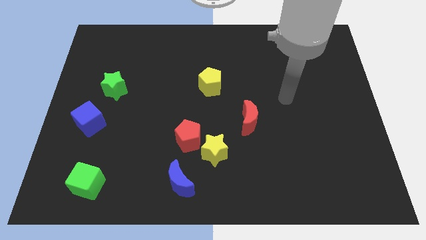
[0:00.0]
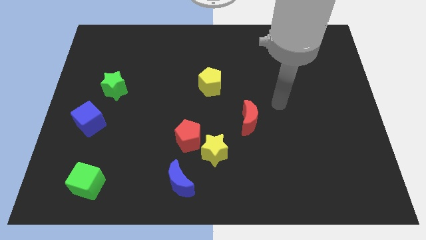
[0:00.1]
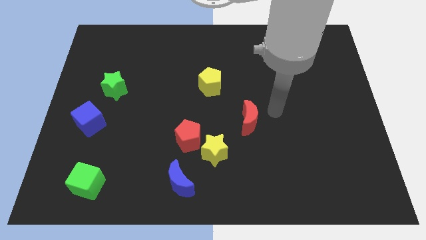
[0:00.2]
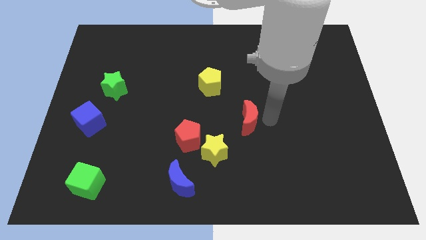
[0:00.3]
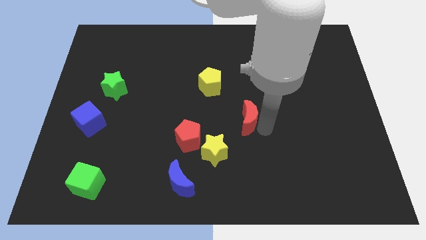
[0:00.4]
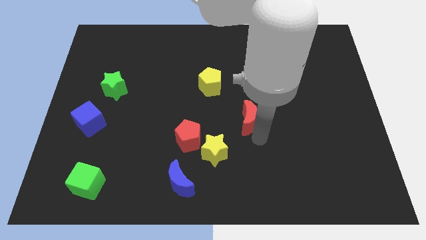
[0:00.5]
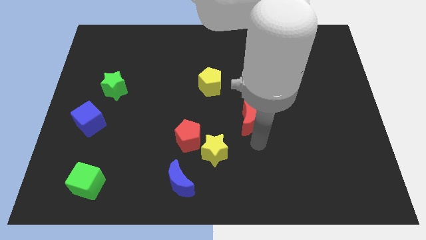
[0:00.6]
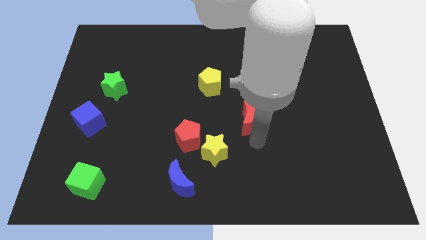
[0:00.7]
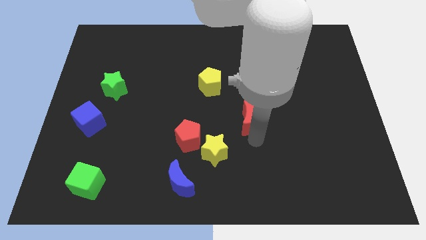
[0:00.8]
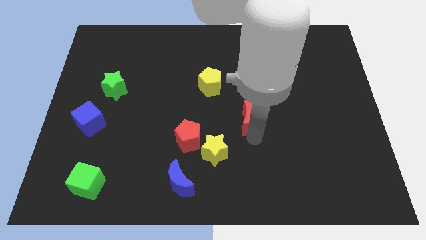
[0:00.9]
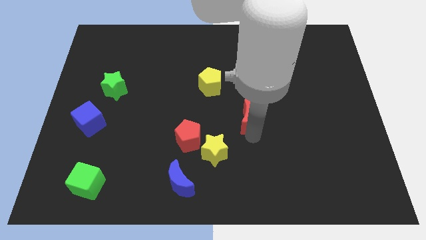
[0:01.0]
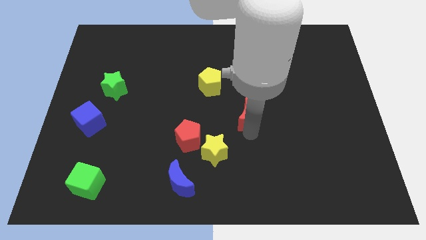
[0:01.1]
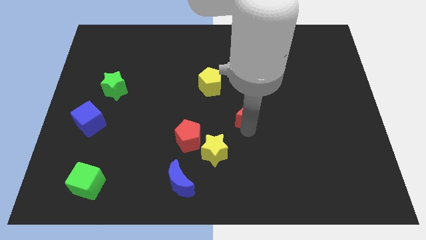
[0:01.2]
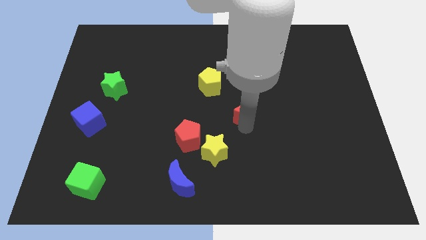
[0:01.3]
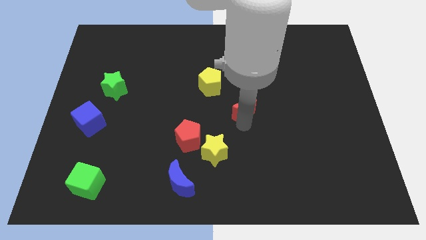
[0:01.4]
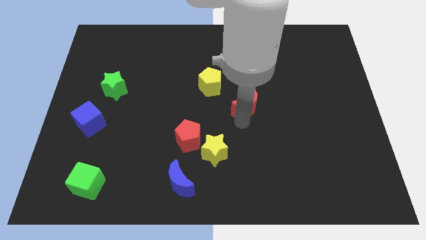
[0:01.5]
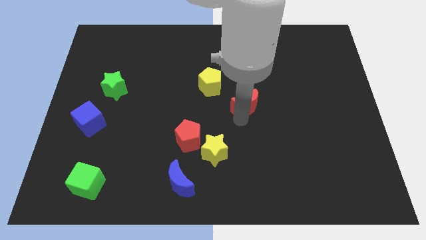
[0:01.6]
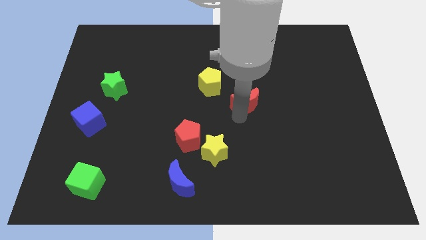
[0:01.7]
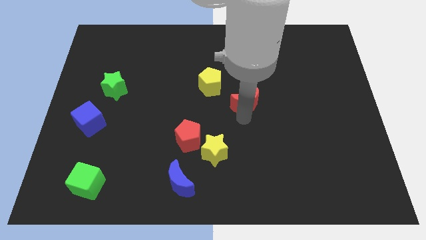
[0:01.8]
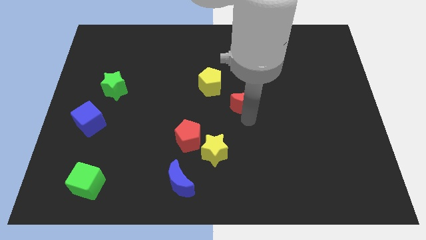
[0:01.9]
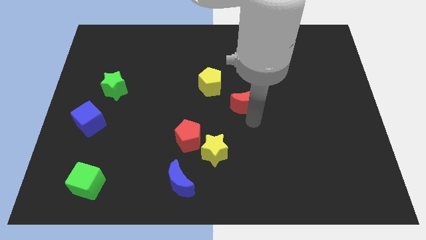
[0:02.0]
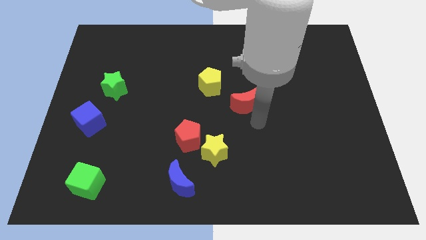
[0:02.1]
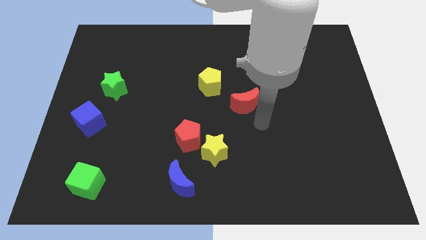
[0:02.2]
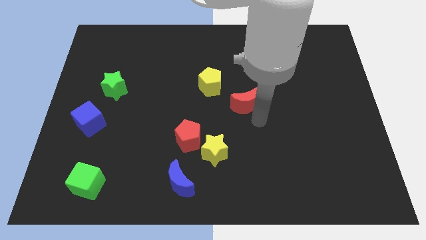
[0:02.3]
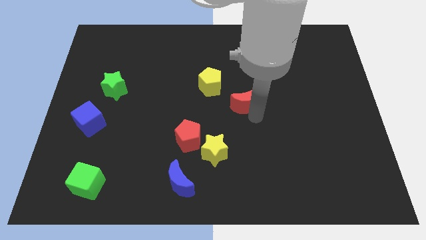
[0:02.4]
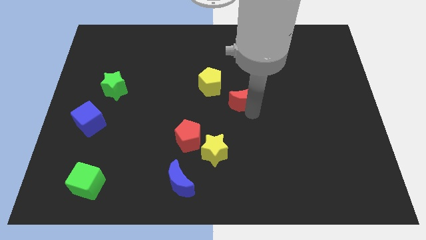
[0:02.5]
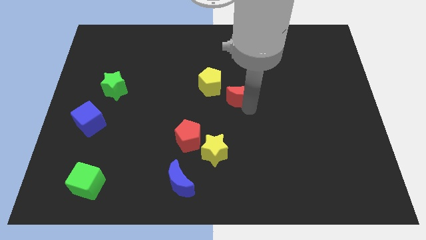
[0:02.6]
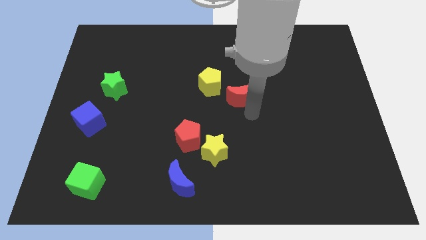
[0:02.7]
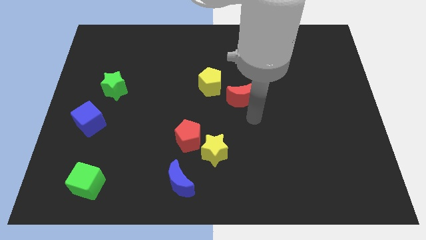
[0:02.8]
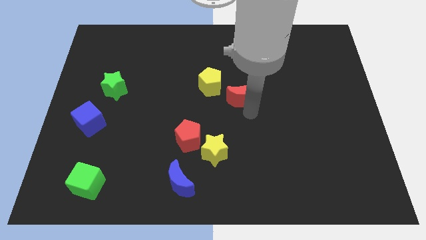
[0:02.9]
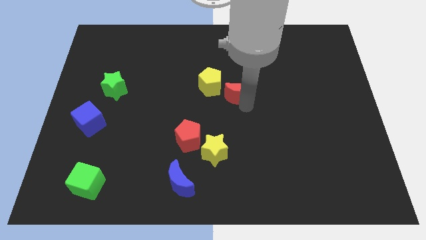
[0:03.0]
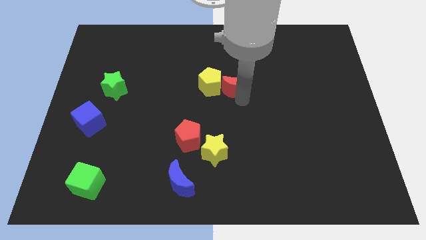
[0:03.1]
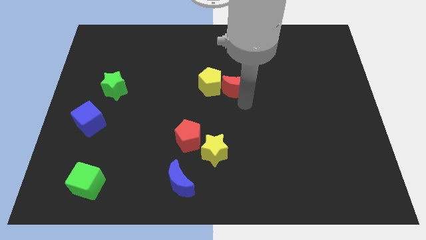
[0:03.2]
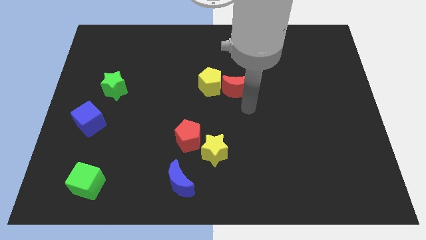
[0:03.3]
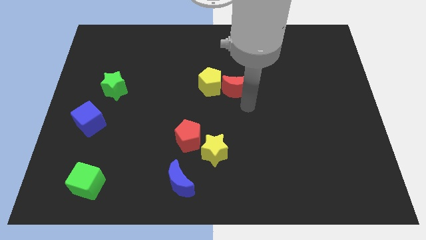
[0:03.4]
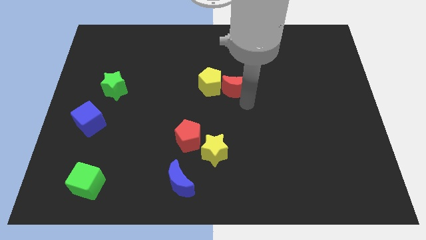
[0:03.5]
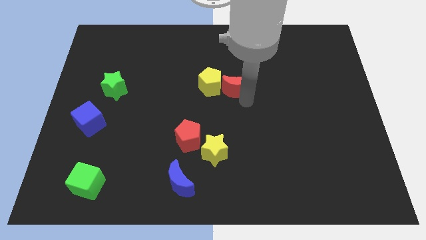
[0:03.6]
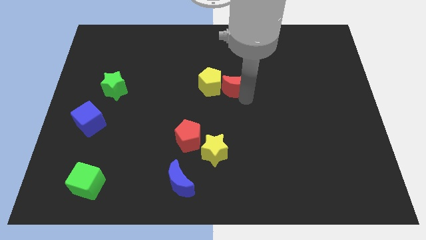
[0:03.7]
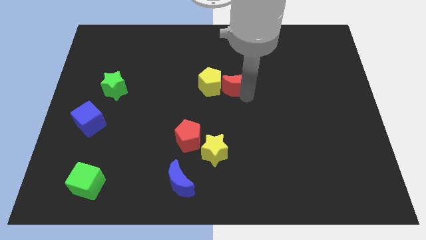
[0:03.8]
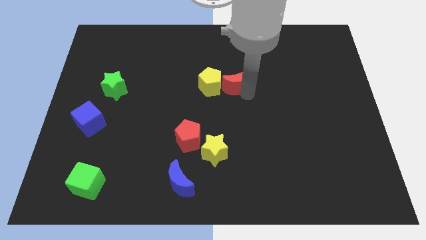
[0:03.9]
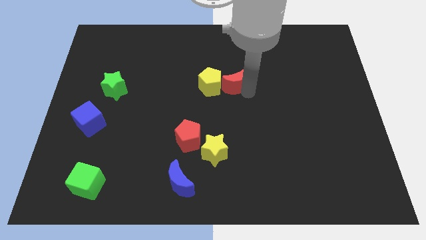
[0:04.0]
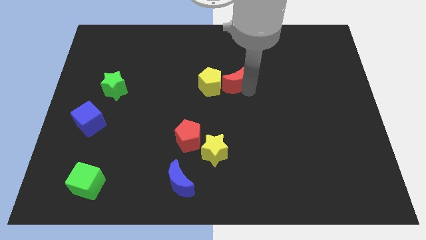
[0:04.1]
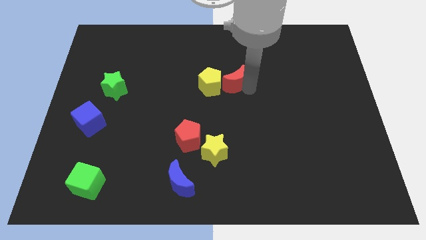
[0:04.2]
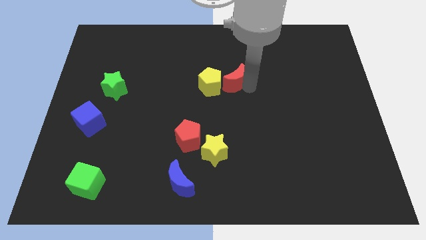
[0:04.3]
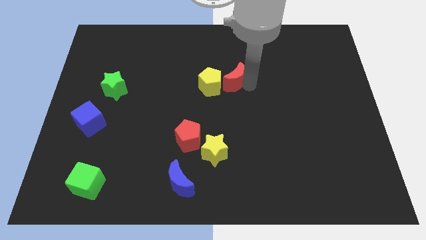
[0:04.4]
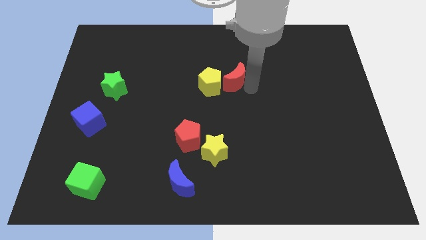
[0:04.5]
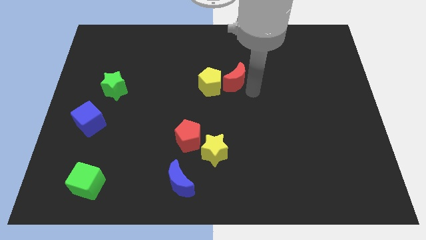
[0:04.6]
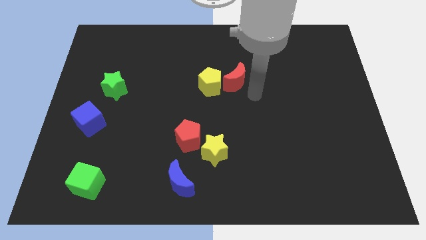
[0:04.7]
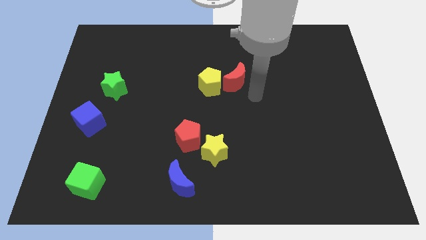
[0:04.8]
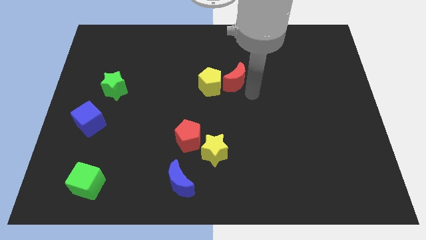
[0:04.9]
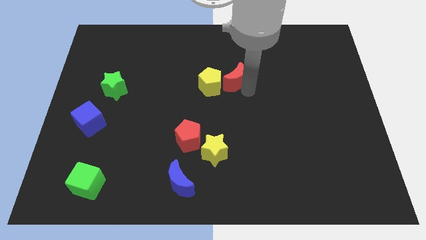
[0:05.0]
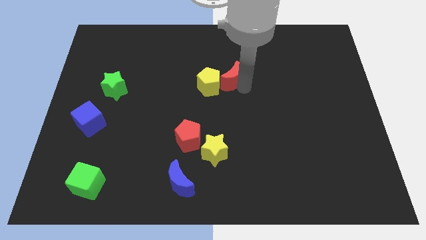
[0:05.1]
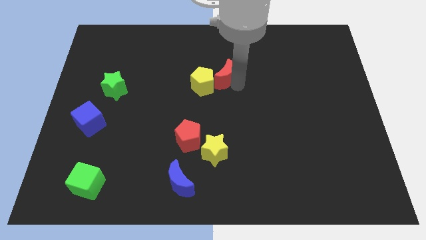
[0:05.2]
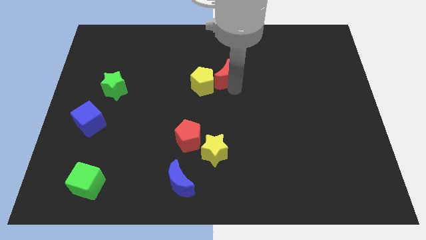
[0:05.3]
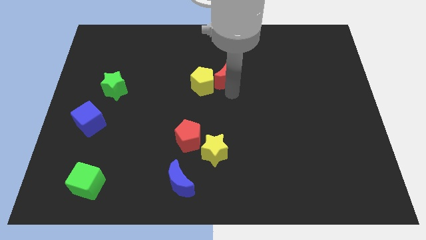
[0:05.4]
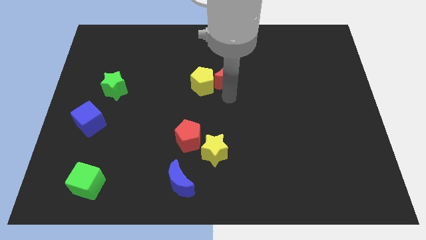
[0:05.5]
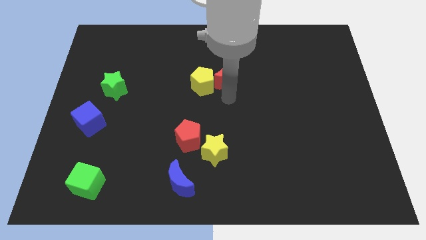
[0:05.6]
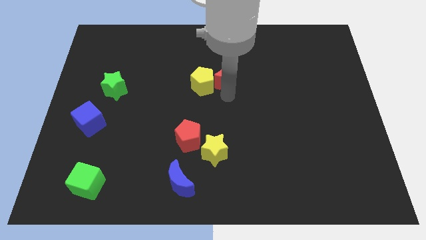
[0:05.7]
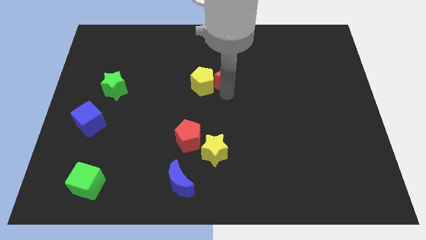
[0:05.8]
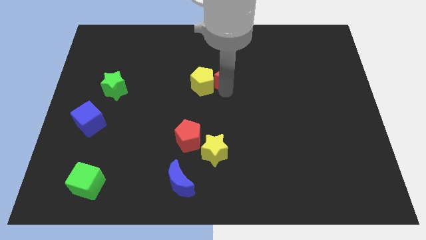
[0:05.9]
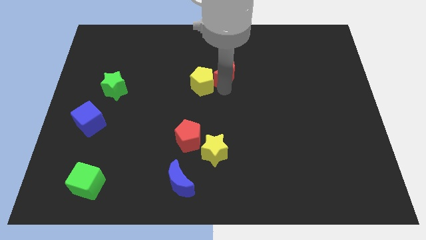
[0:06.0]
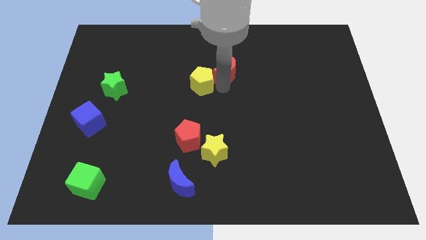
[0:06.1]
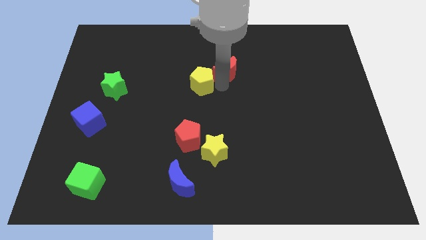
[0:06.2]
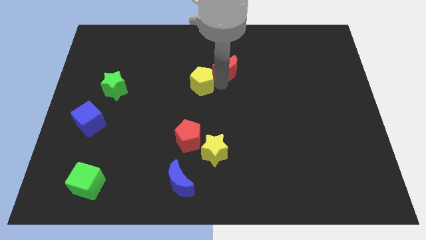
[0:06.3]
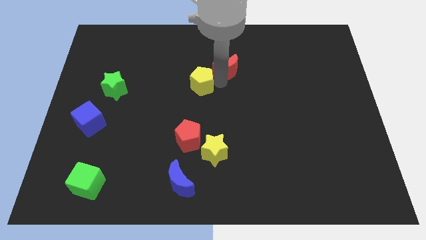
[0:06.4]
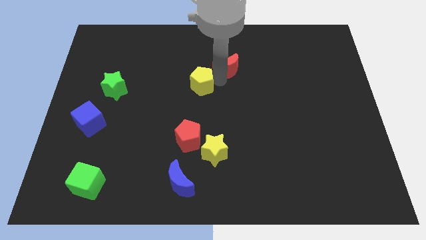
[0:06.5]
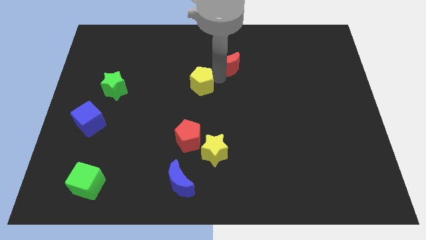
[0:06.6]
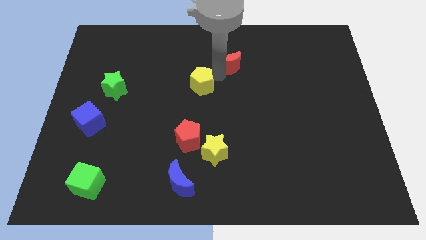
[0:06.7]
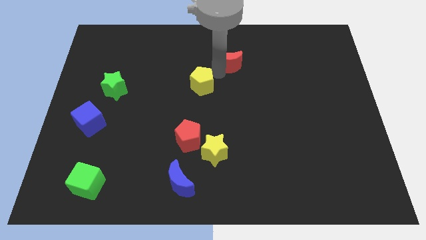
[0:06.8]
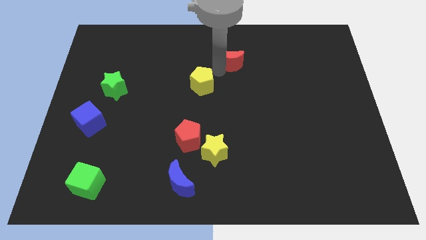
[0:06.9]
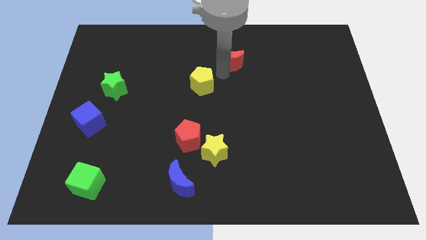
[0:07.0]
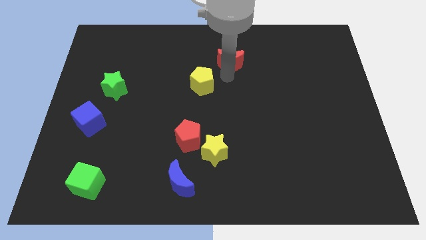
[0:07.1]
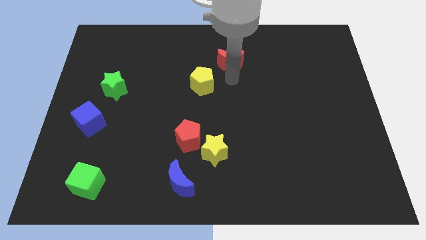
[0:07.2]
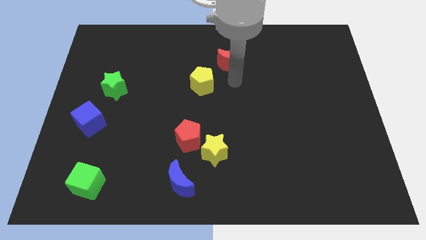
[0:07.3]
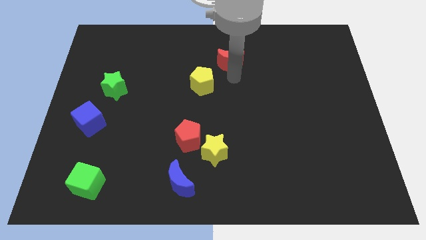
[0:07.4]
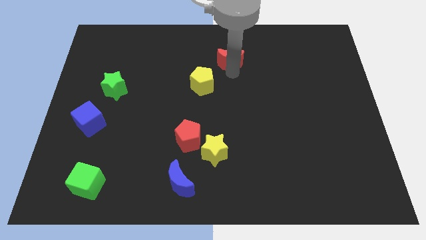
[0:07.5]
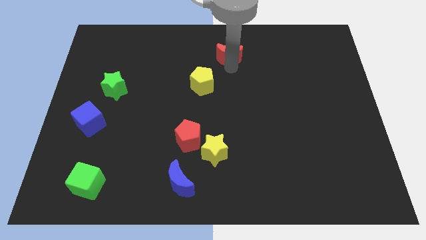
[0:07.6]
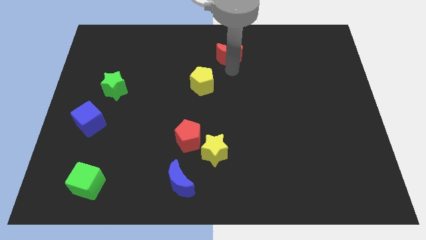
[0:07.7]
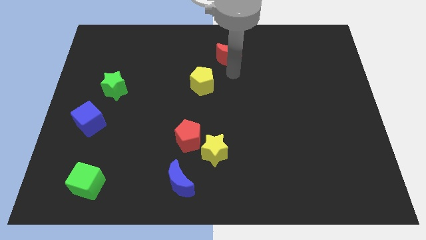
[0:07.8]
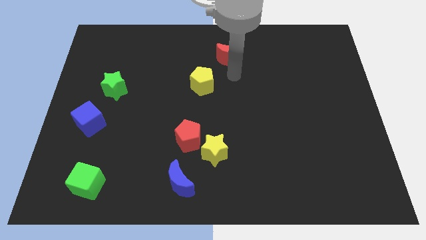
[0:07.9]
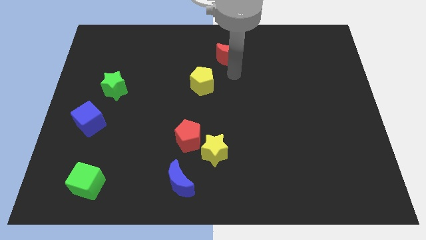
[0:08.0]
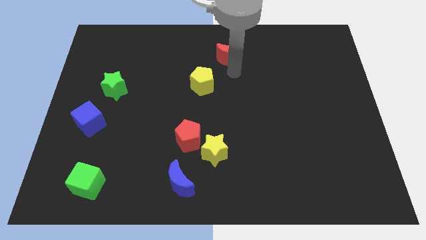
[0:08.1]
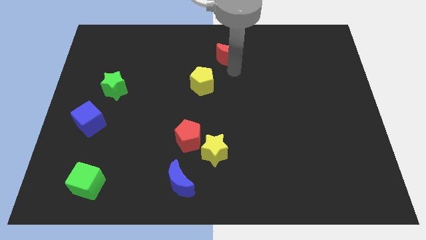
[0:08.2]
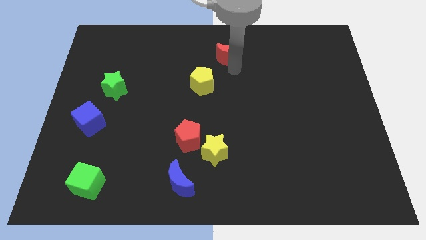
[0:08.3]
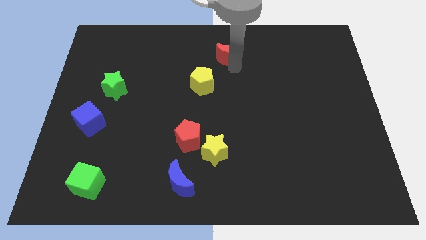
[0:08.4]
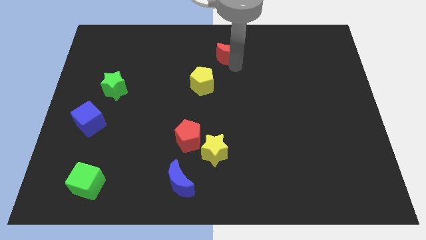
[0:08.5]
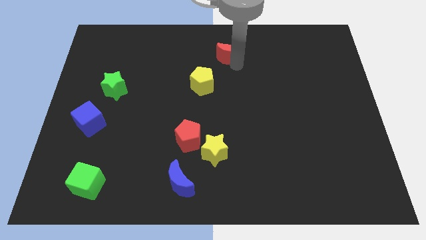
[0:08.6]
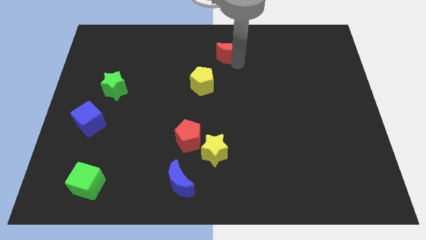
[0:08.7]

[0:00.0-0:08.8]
slide the red moon to the towards your base
